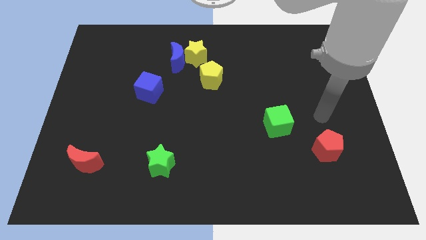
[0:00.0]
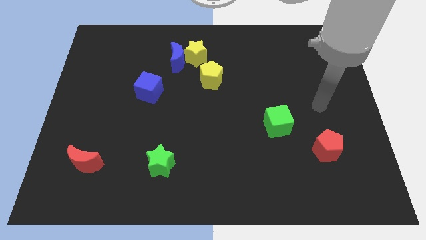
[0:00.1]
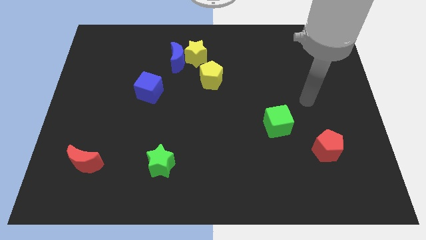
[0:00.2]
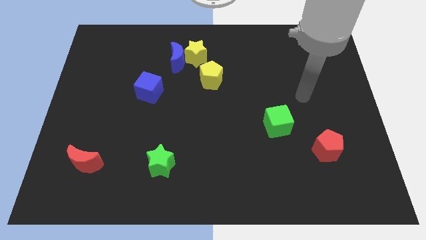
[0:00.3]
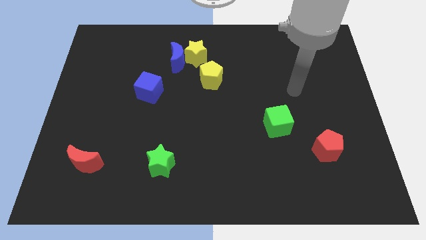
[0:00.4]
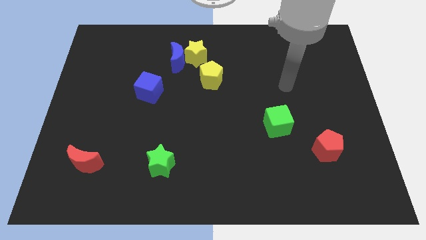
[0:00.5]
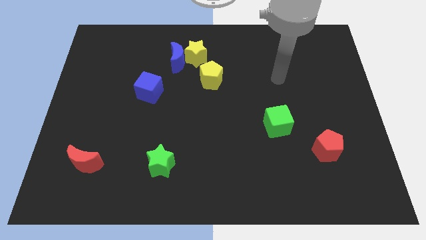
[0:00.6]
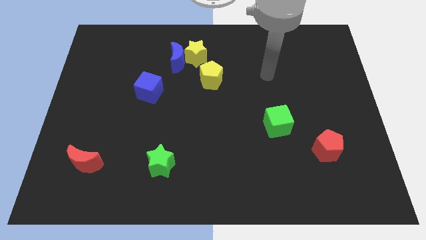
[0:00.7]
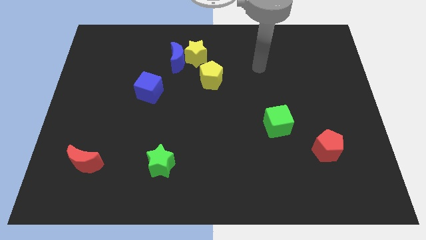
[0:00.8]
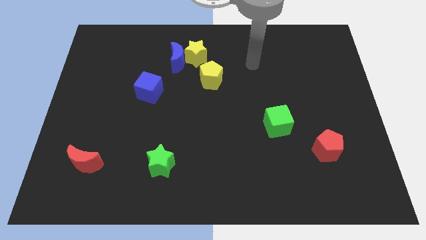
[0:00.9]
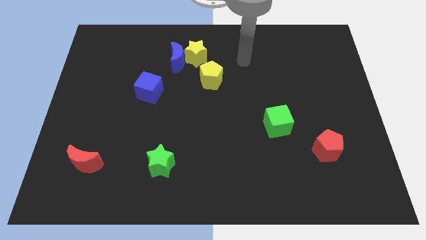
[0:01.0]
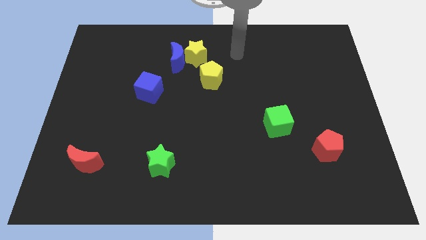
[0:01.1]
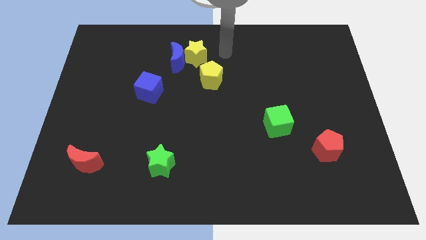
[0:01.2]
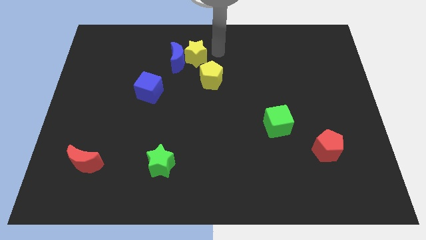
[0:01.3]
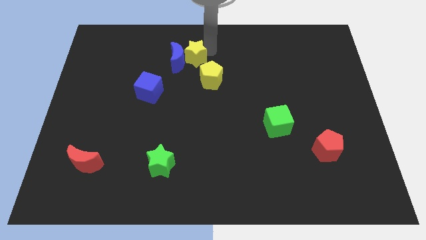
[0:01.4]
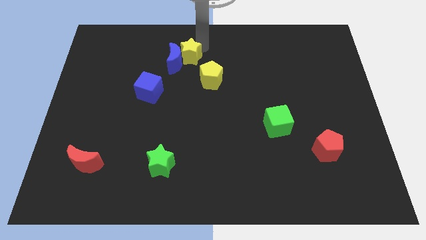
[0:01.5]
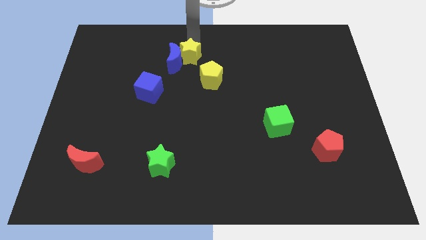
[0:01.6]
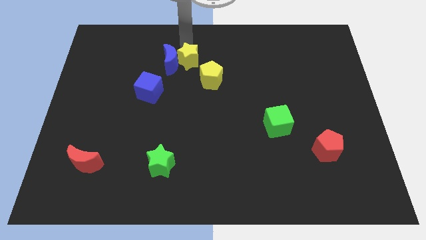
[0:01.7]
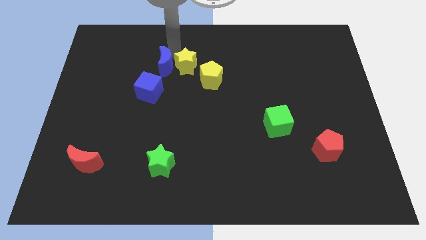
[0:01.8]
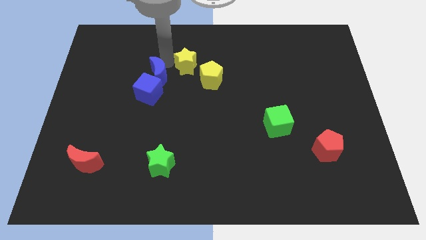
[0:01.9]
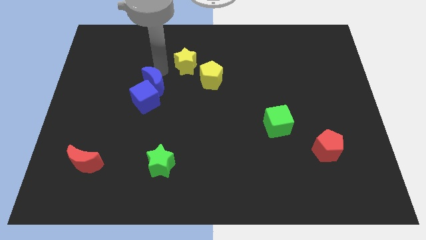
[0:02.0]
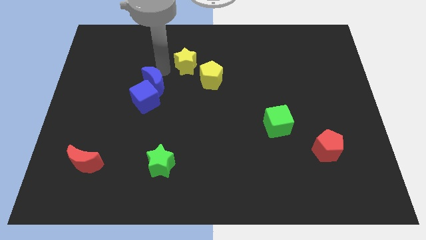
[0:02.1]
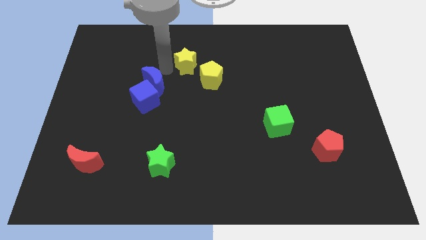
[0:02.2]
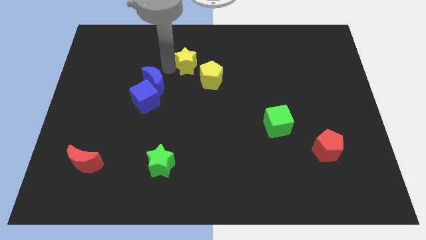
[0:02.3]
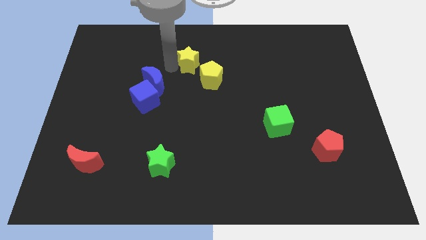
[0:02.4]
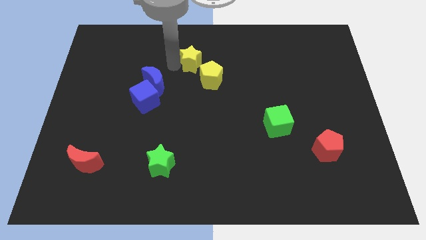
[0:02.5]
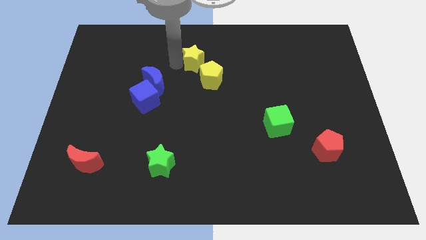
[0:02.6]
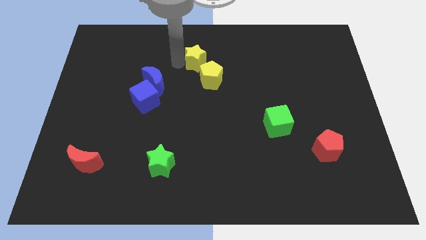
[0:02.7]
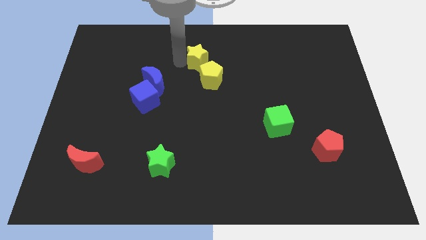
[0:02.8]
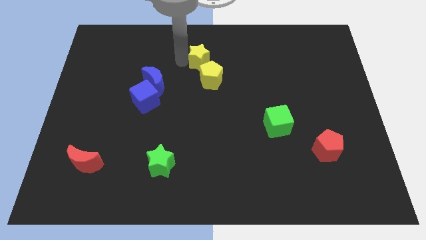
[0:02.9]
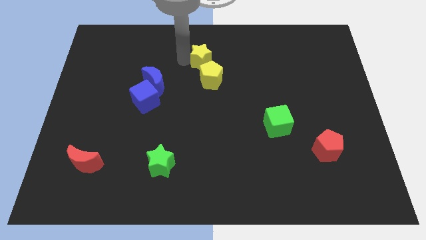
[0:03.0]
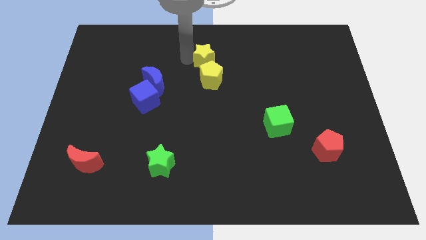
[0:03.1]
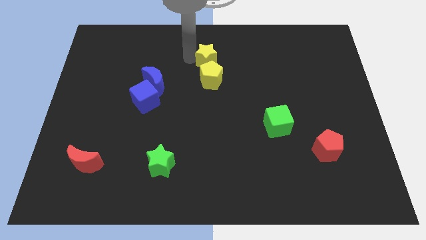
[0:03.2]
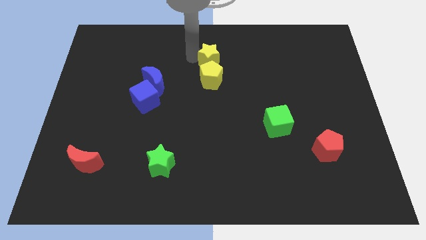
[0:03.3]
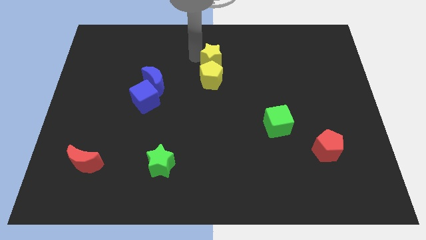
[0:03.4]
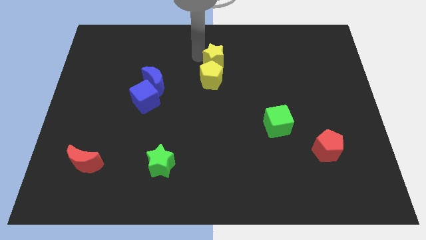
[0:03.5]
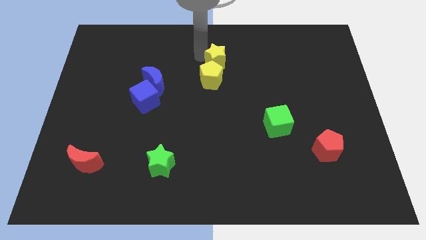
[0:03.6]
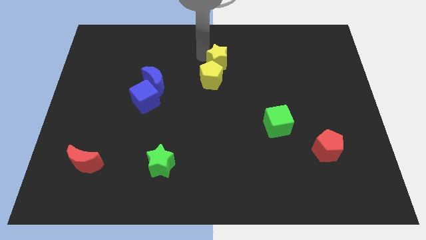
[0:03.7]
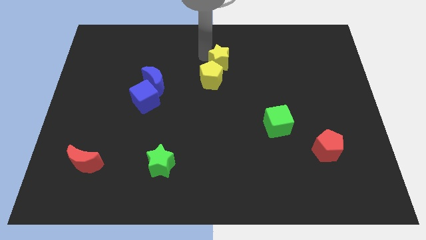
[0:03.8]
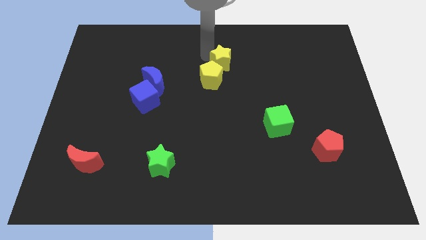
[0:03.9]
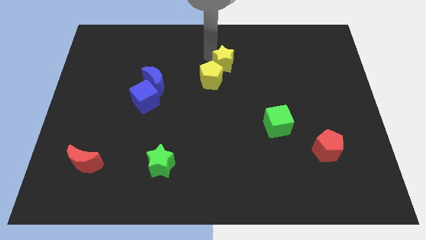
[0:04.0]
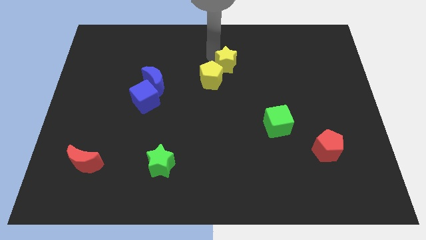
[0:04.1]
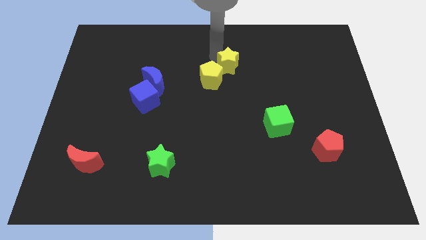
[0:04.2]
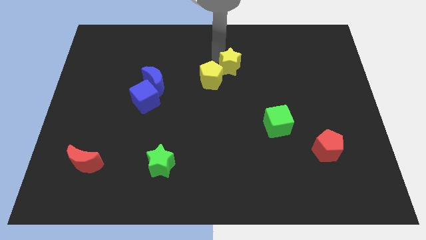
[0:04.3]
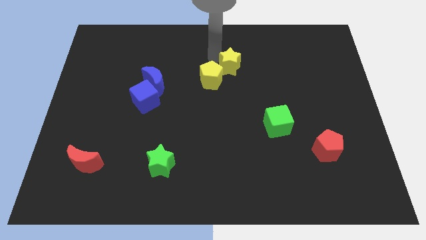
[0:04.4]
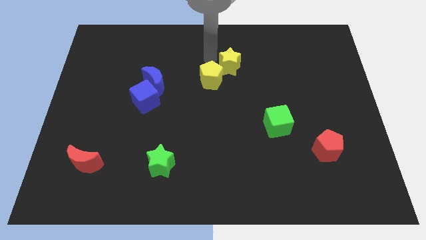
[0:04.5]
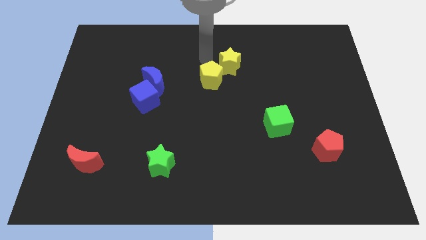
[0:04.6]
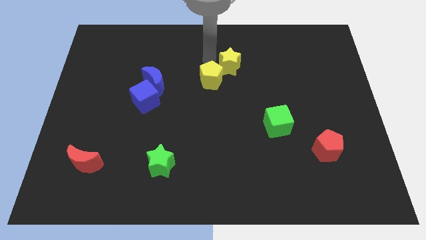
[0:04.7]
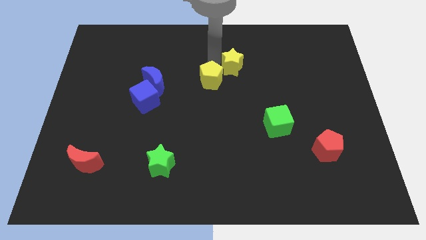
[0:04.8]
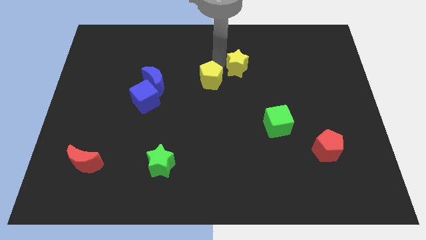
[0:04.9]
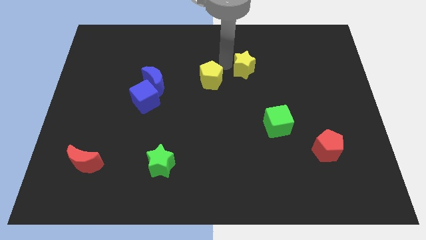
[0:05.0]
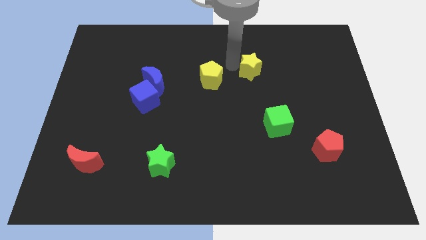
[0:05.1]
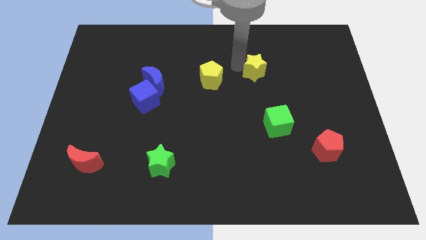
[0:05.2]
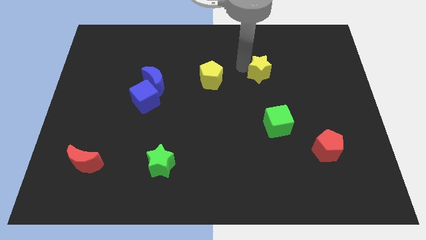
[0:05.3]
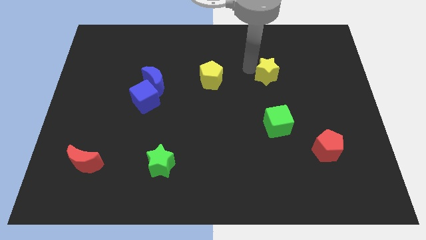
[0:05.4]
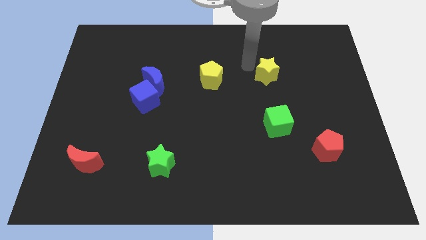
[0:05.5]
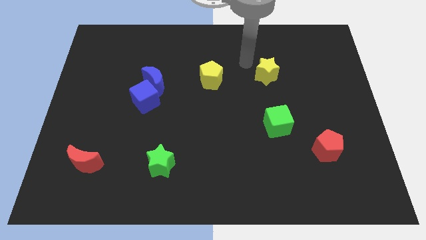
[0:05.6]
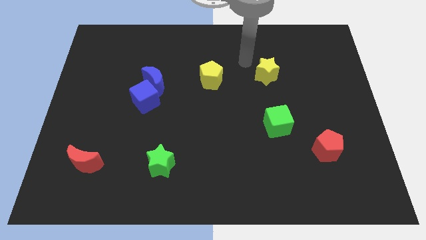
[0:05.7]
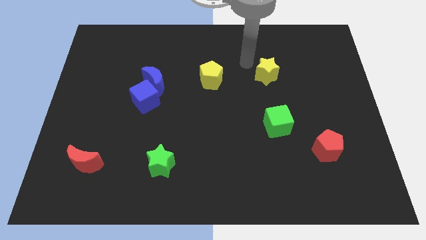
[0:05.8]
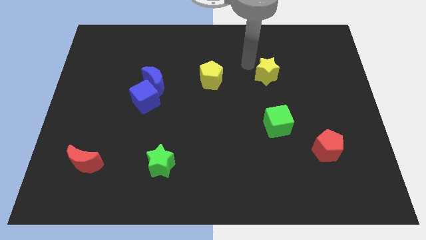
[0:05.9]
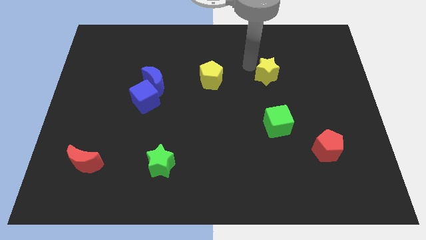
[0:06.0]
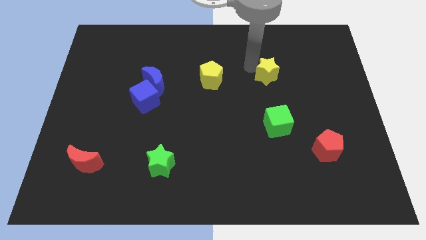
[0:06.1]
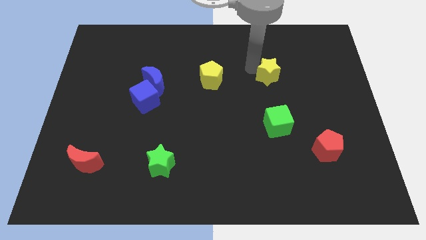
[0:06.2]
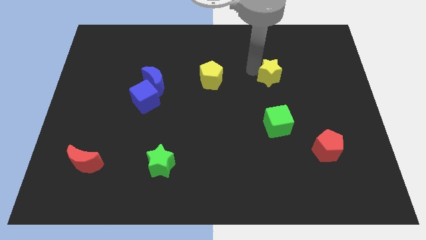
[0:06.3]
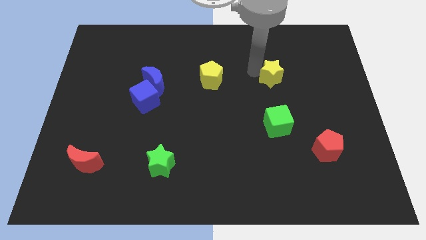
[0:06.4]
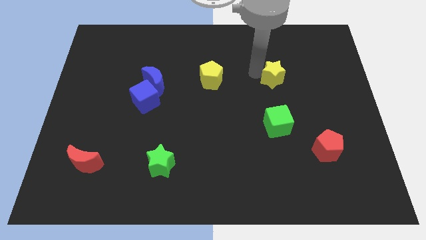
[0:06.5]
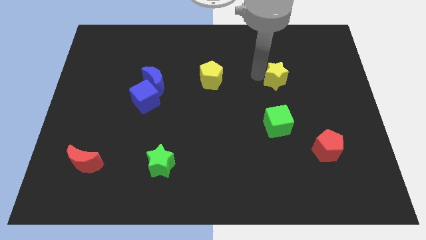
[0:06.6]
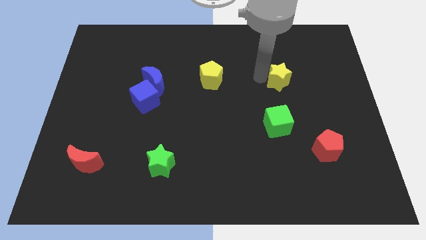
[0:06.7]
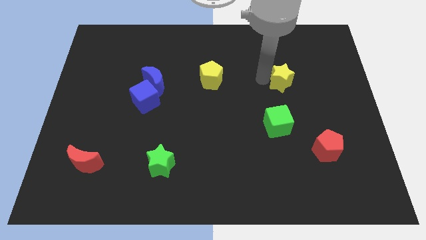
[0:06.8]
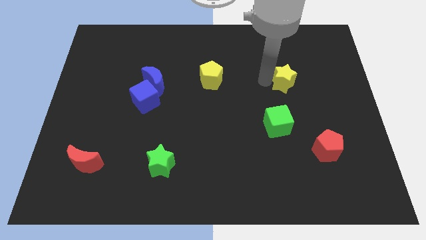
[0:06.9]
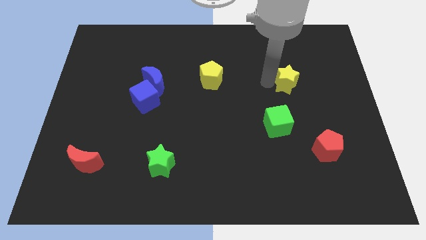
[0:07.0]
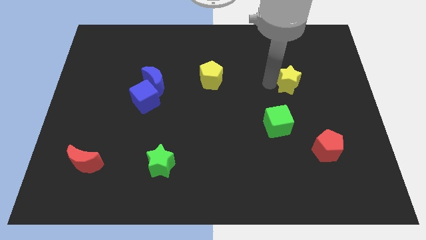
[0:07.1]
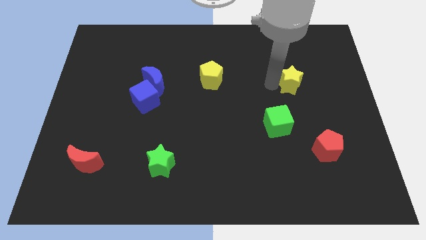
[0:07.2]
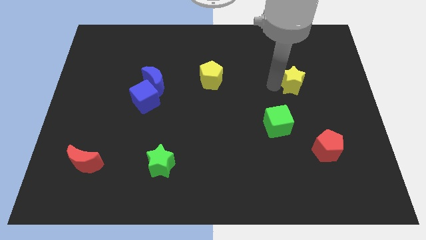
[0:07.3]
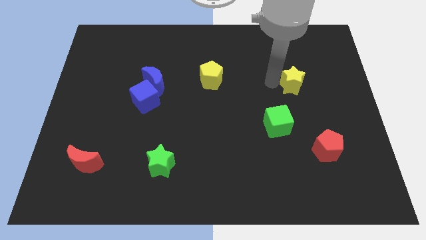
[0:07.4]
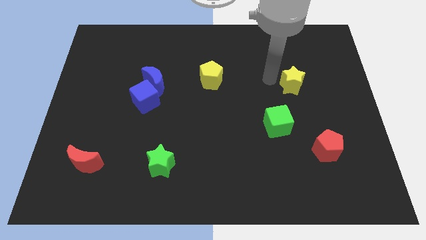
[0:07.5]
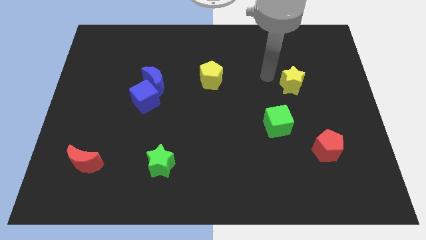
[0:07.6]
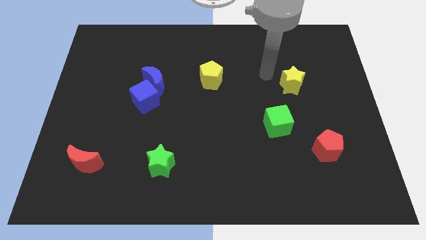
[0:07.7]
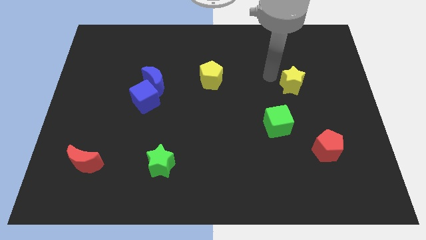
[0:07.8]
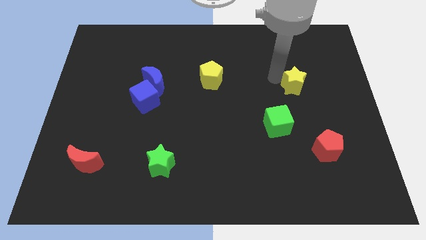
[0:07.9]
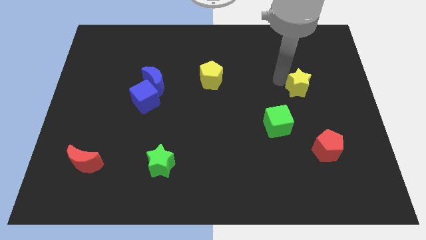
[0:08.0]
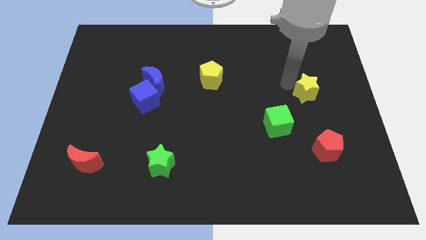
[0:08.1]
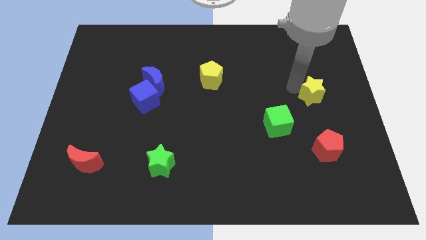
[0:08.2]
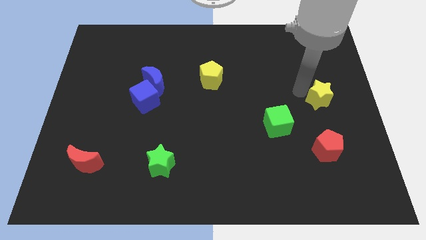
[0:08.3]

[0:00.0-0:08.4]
move the yellow star to the right side of the board
